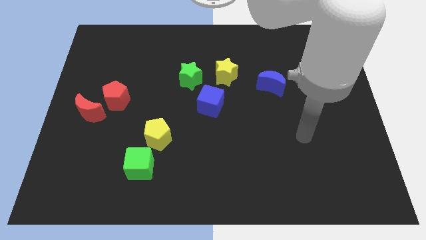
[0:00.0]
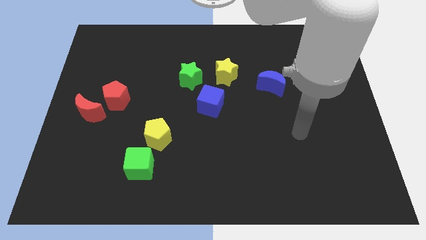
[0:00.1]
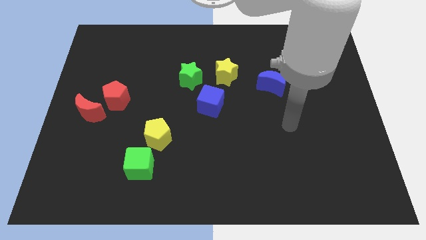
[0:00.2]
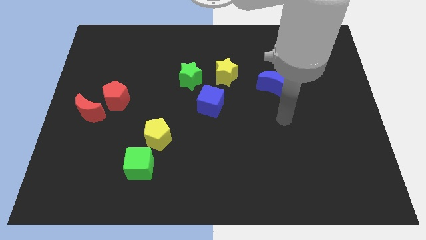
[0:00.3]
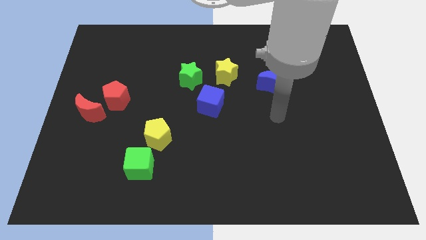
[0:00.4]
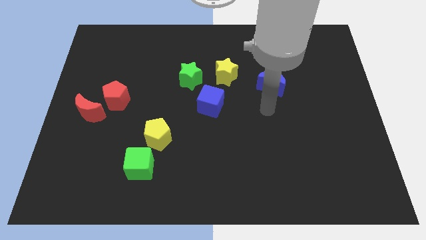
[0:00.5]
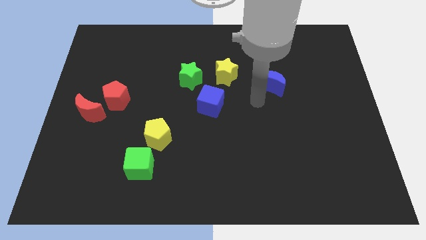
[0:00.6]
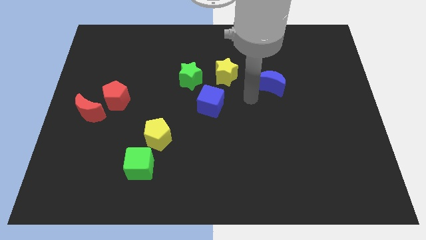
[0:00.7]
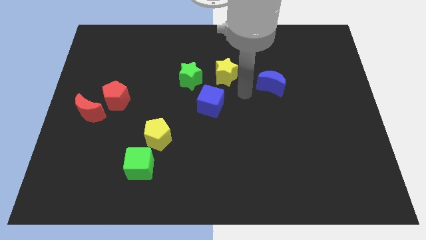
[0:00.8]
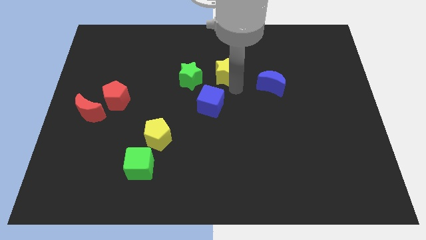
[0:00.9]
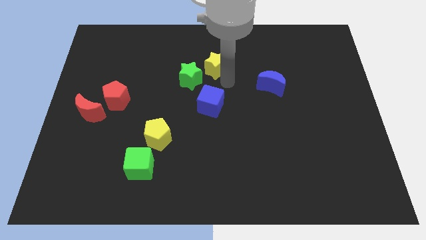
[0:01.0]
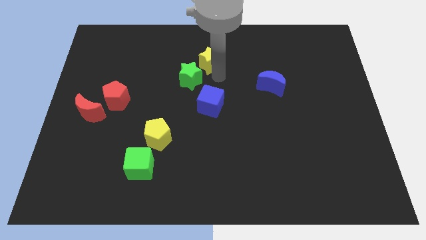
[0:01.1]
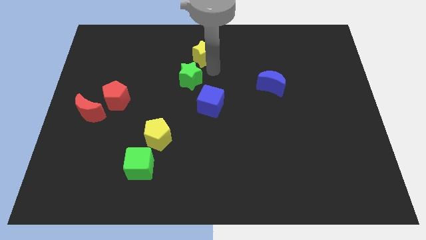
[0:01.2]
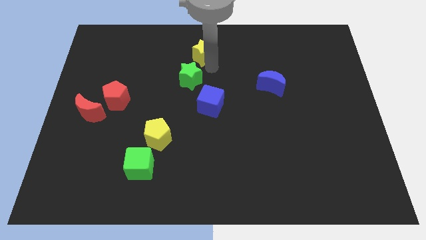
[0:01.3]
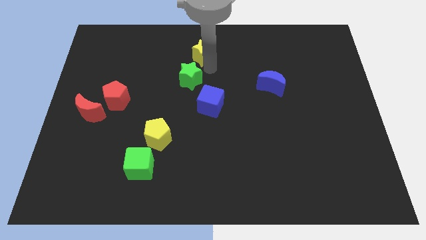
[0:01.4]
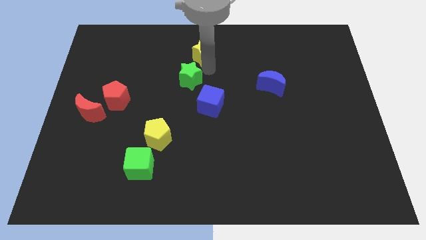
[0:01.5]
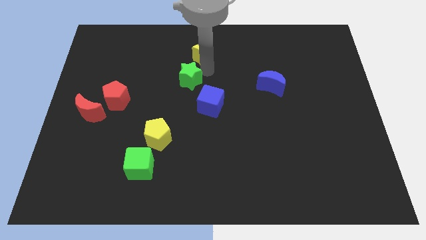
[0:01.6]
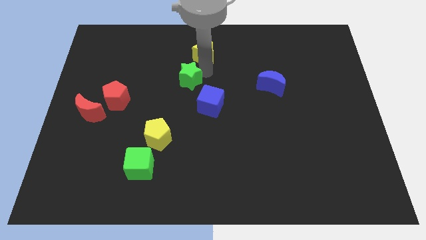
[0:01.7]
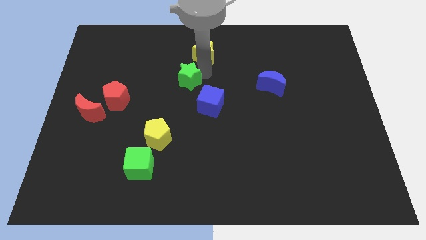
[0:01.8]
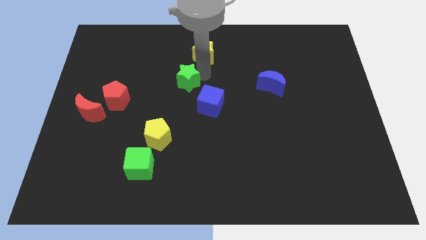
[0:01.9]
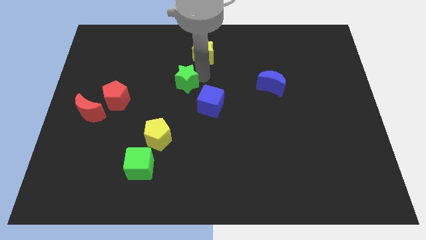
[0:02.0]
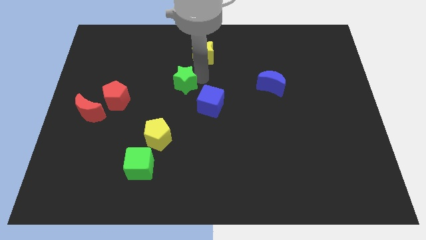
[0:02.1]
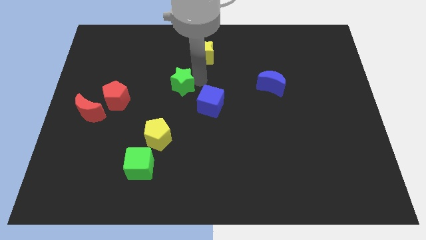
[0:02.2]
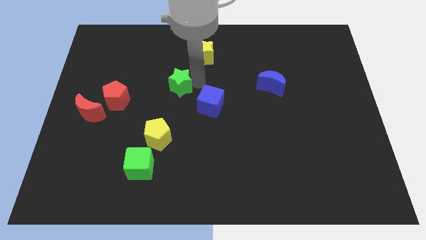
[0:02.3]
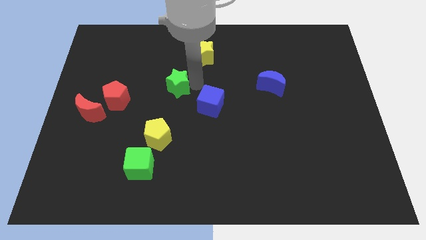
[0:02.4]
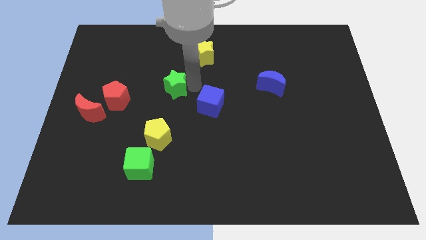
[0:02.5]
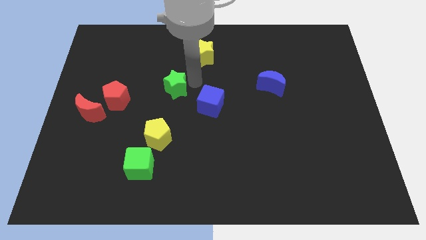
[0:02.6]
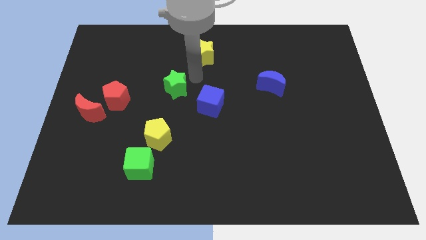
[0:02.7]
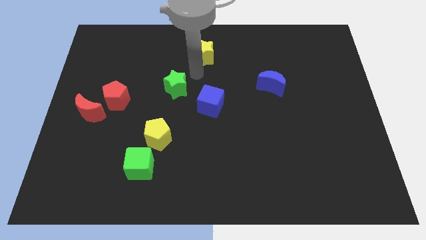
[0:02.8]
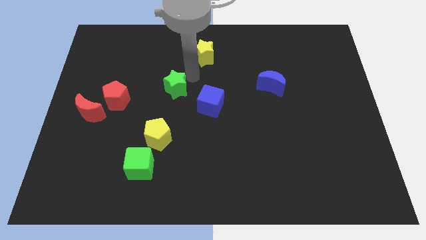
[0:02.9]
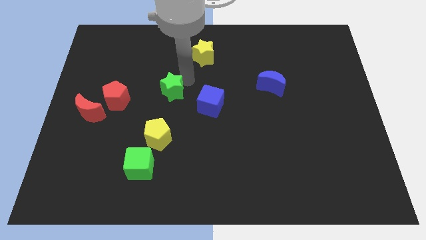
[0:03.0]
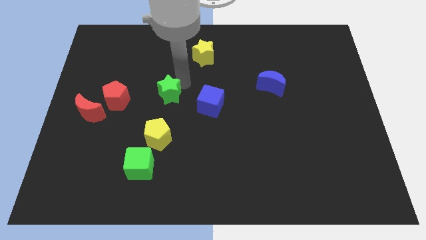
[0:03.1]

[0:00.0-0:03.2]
move the green star slightly diagonally downwards and left

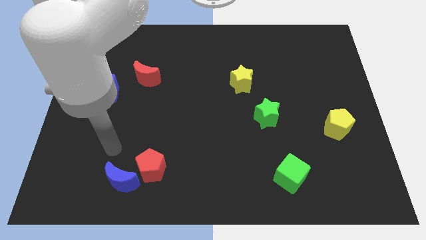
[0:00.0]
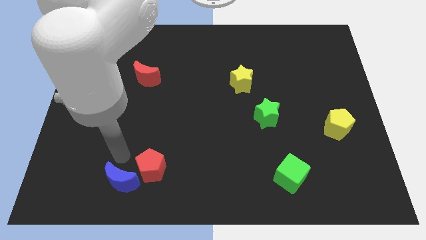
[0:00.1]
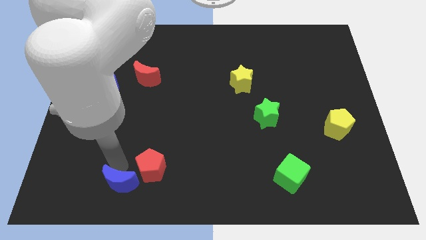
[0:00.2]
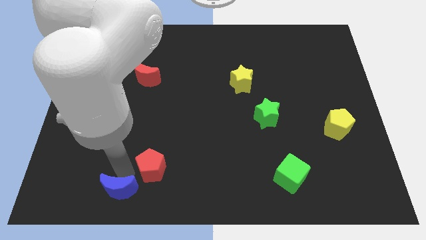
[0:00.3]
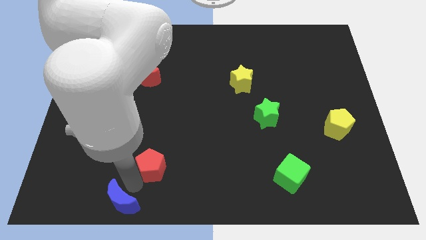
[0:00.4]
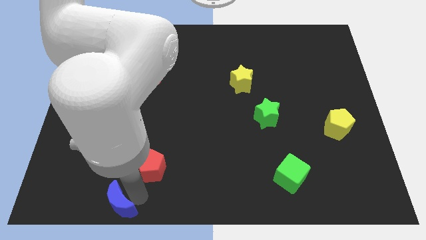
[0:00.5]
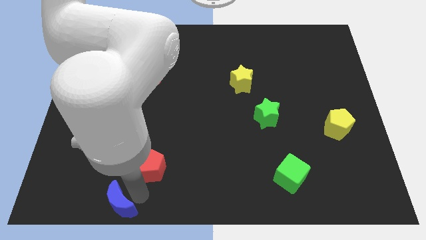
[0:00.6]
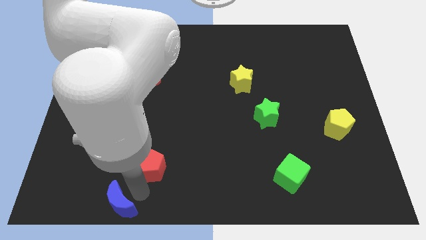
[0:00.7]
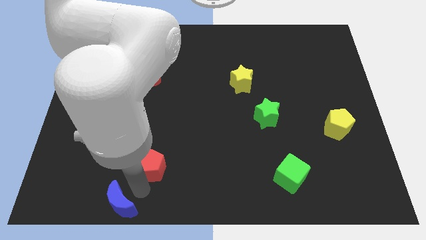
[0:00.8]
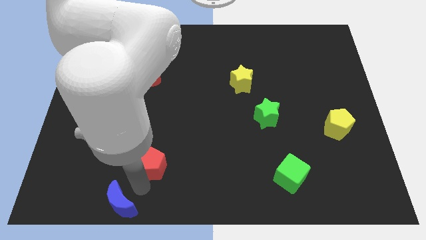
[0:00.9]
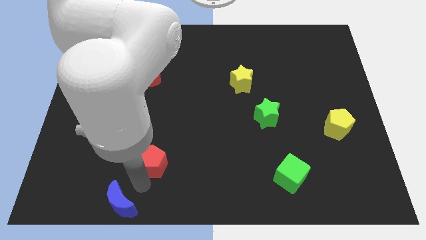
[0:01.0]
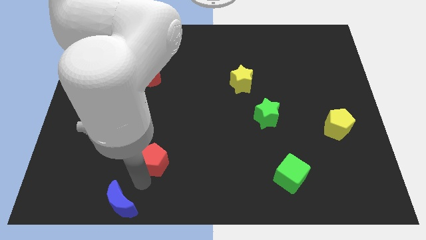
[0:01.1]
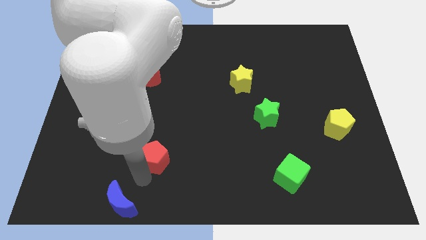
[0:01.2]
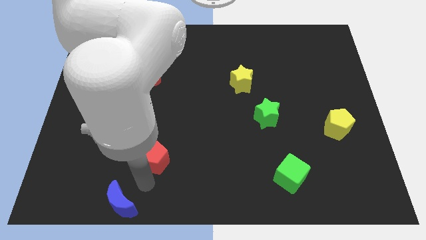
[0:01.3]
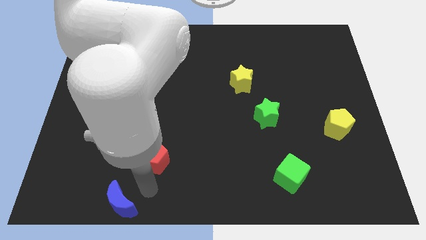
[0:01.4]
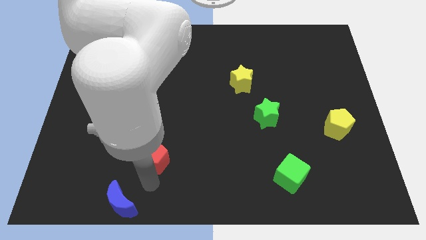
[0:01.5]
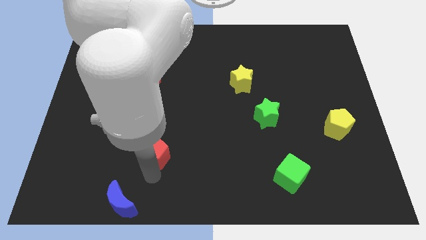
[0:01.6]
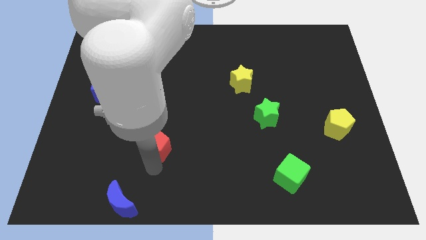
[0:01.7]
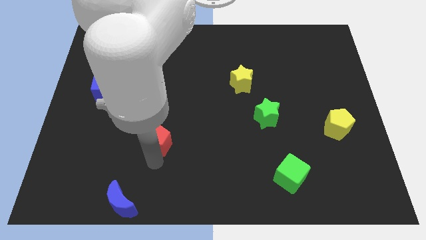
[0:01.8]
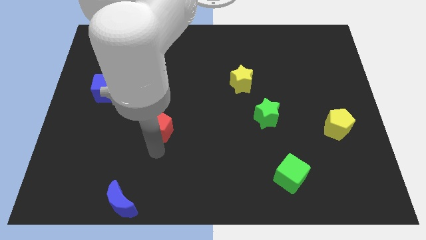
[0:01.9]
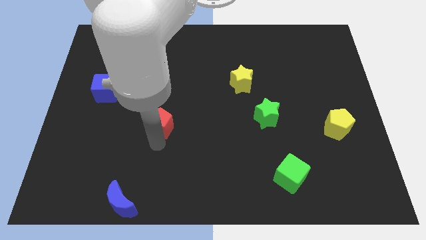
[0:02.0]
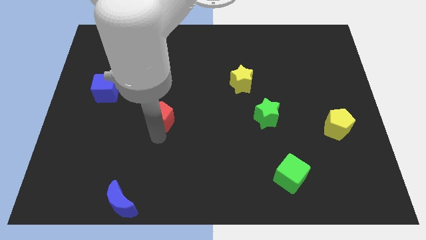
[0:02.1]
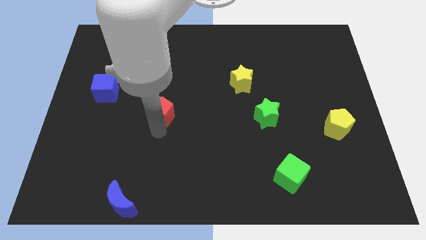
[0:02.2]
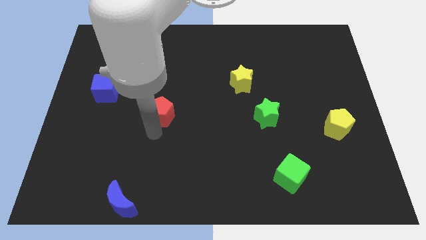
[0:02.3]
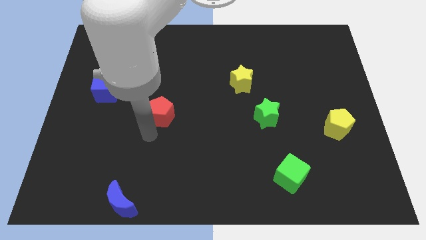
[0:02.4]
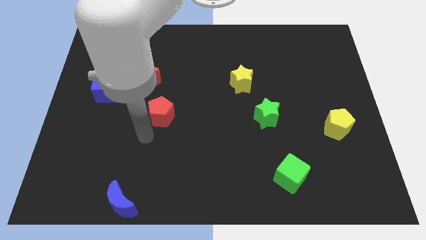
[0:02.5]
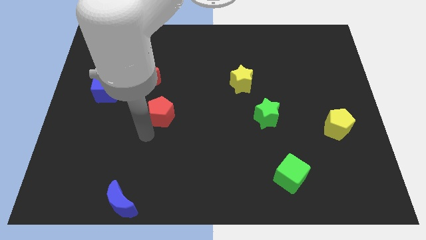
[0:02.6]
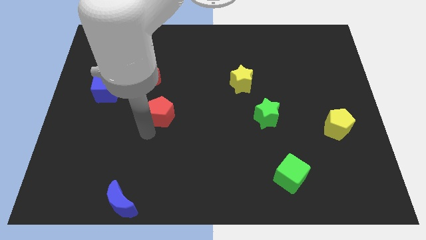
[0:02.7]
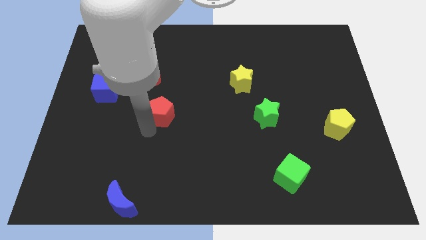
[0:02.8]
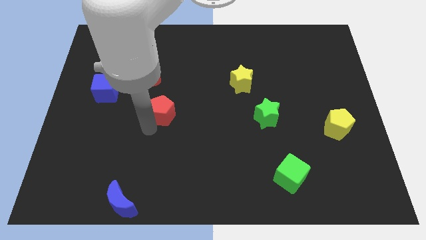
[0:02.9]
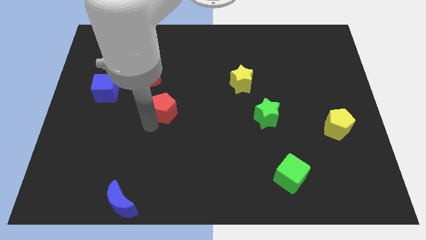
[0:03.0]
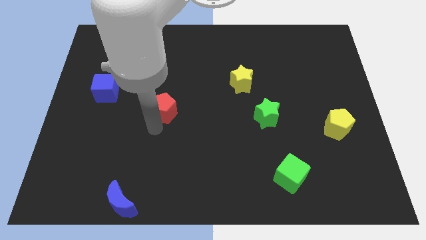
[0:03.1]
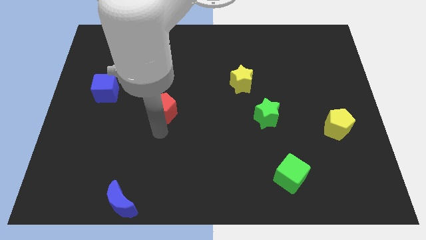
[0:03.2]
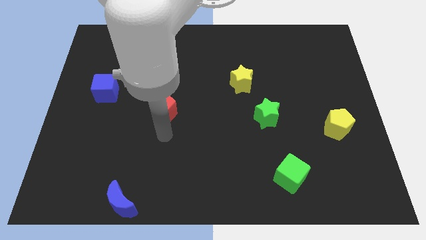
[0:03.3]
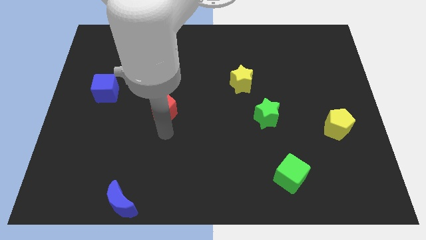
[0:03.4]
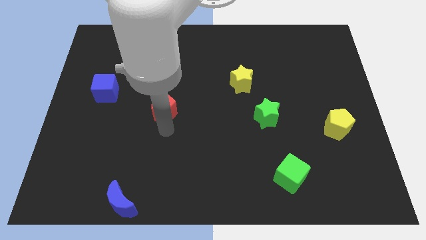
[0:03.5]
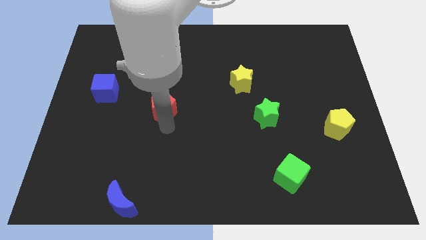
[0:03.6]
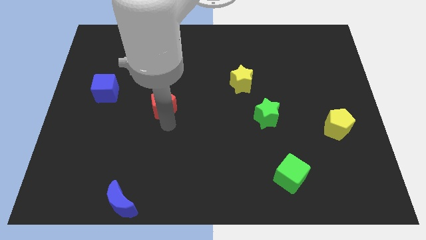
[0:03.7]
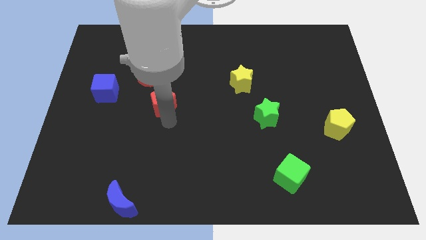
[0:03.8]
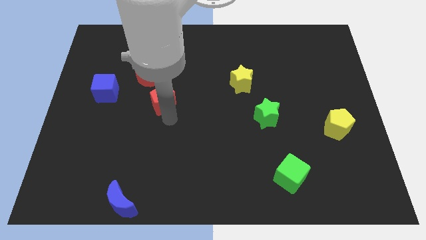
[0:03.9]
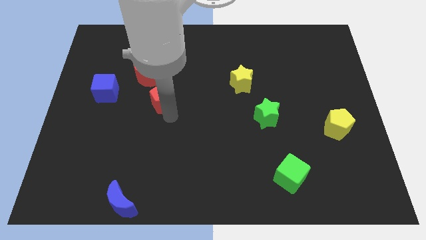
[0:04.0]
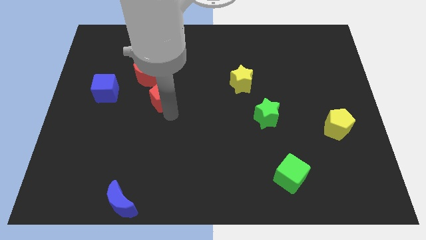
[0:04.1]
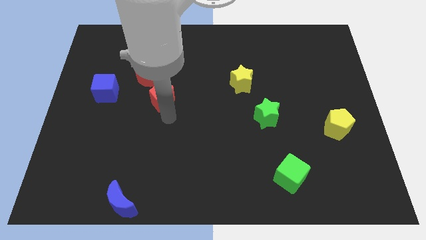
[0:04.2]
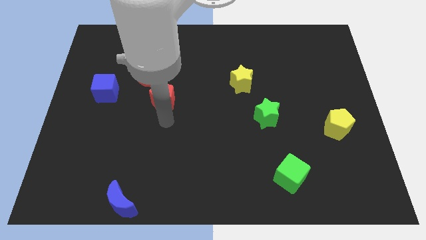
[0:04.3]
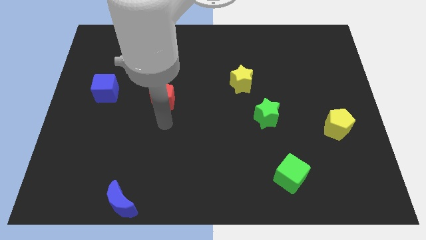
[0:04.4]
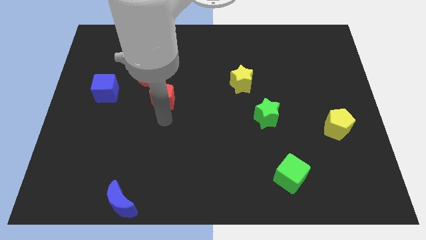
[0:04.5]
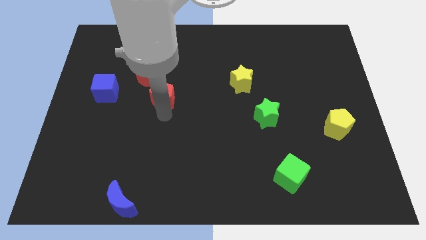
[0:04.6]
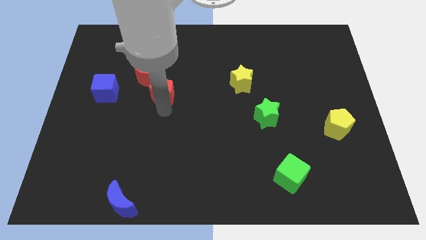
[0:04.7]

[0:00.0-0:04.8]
push the red pentagon up
